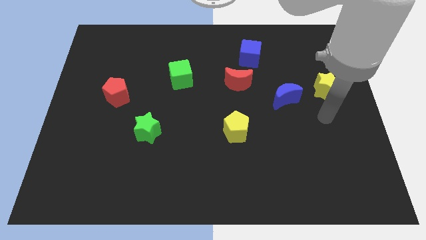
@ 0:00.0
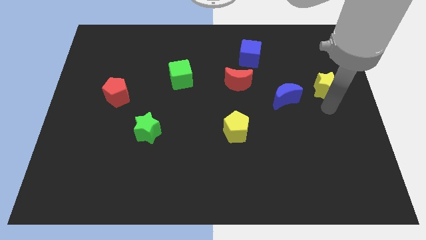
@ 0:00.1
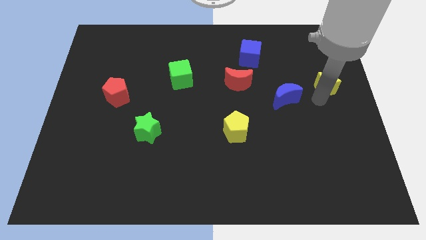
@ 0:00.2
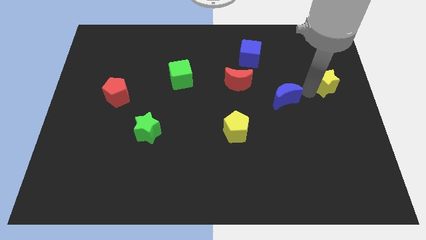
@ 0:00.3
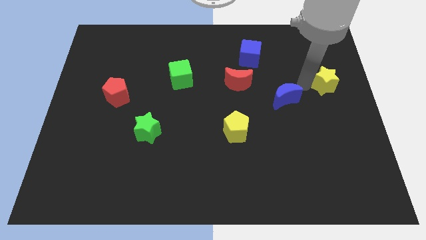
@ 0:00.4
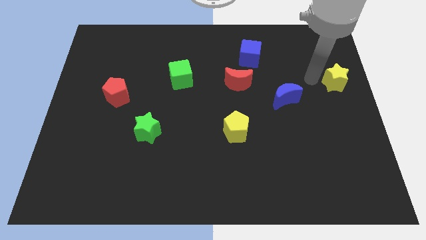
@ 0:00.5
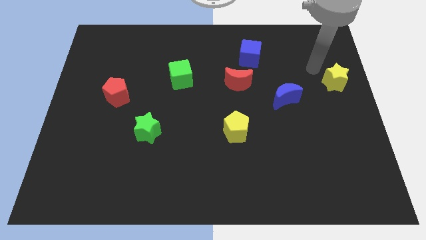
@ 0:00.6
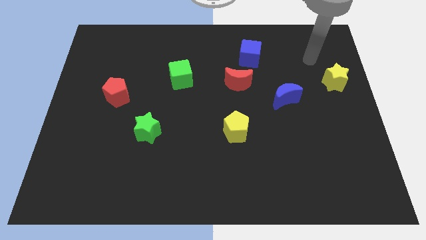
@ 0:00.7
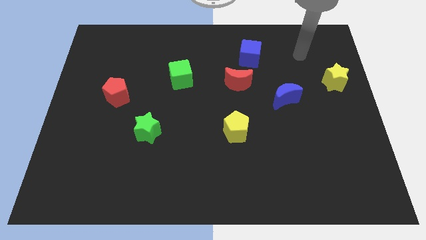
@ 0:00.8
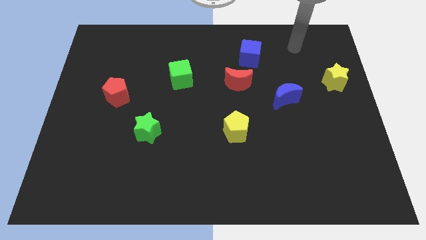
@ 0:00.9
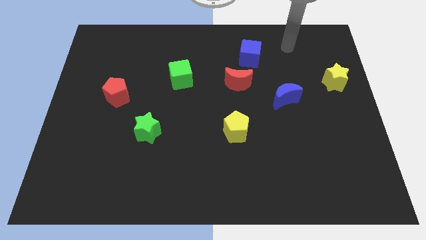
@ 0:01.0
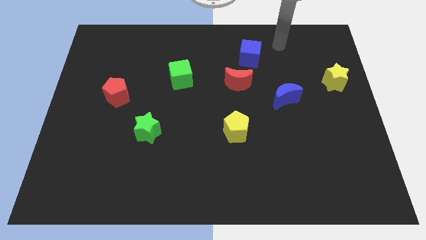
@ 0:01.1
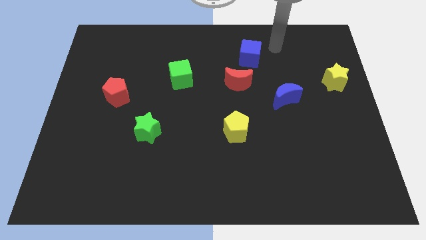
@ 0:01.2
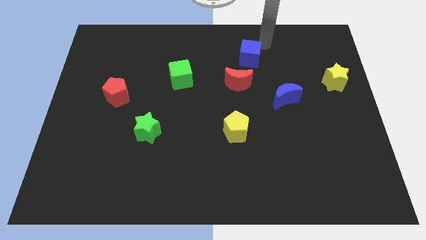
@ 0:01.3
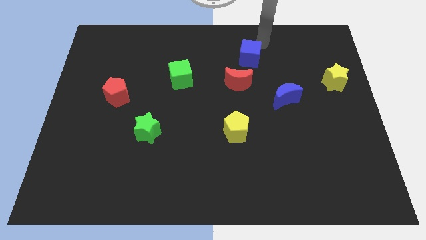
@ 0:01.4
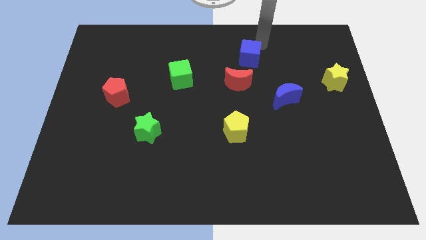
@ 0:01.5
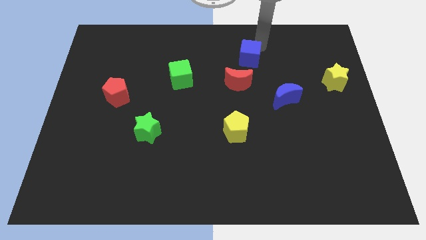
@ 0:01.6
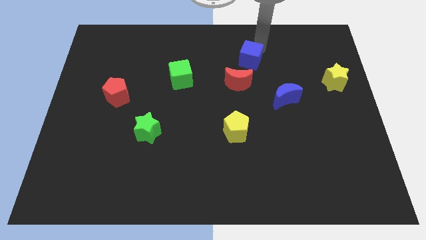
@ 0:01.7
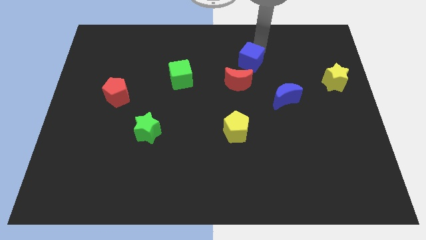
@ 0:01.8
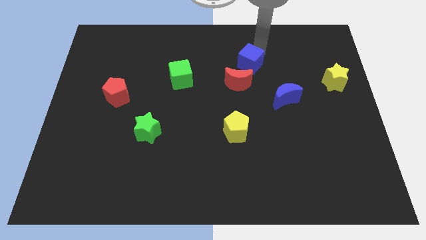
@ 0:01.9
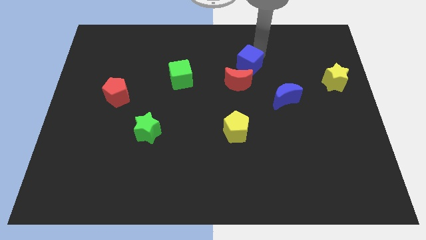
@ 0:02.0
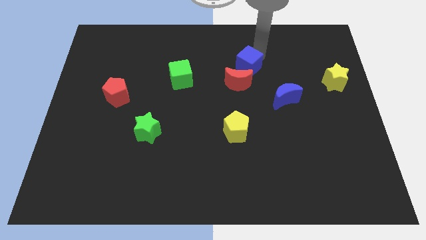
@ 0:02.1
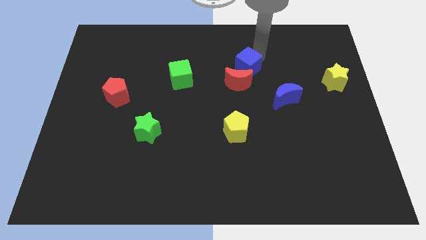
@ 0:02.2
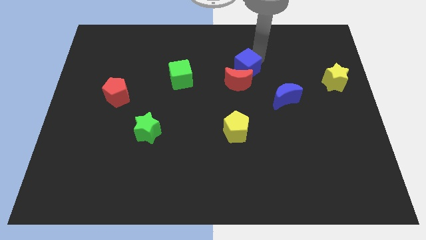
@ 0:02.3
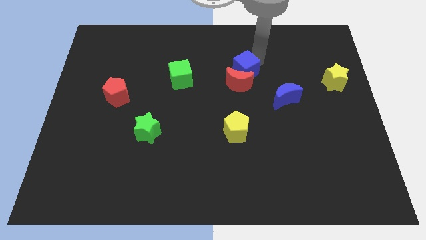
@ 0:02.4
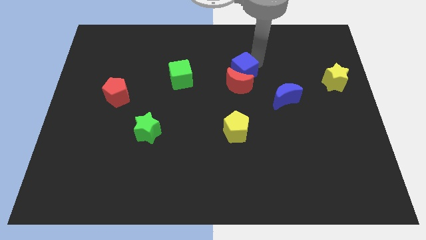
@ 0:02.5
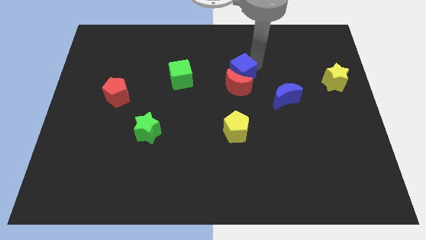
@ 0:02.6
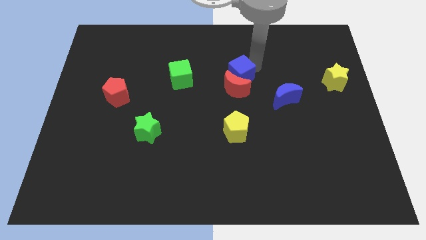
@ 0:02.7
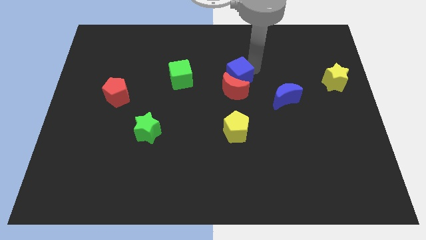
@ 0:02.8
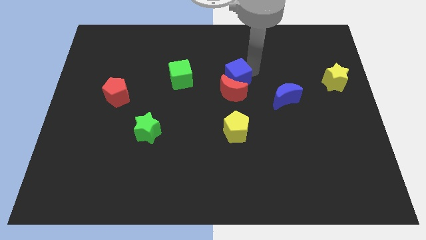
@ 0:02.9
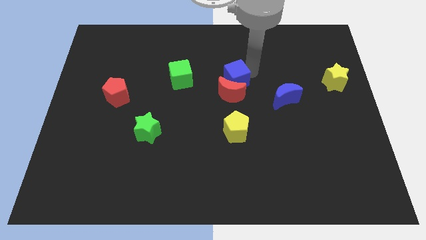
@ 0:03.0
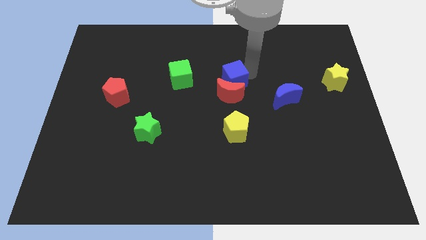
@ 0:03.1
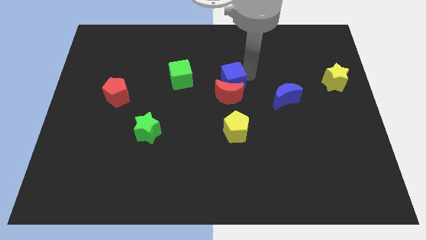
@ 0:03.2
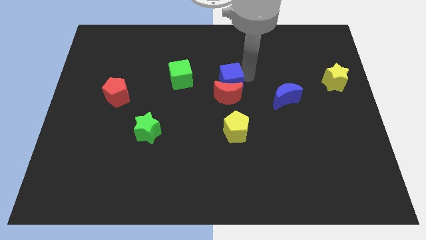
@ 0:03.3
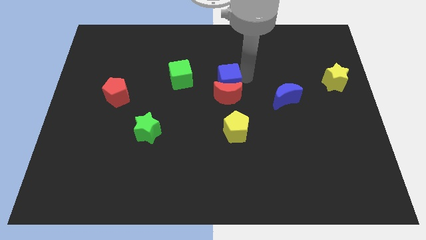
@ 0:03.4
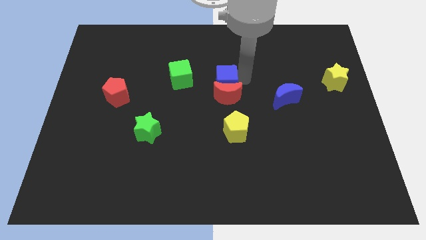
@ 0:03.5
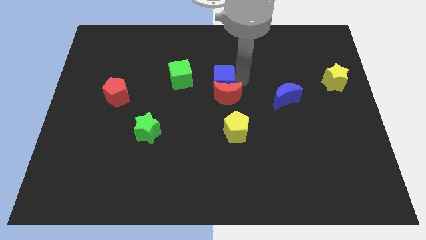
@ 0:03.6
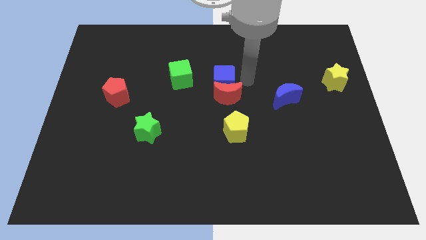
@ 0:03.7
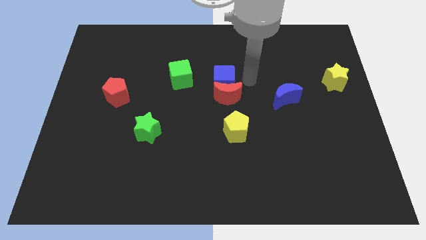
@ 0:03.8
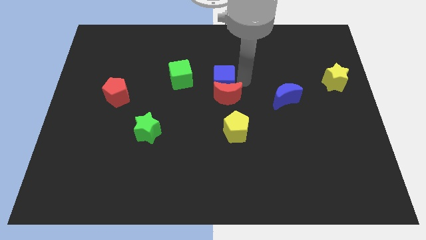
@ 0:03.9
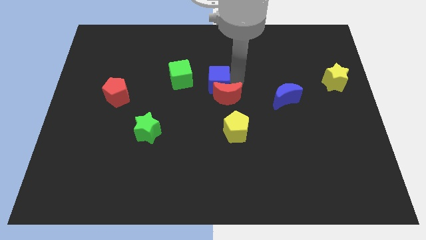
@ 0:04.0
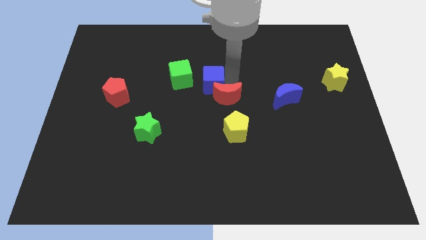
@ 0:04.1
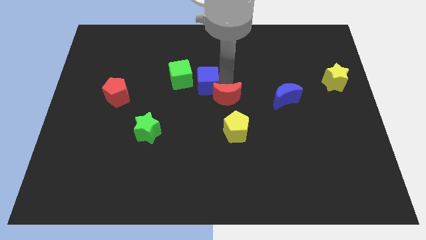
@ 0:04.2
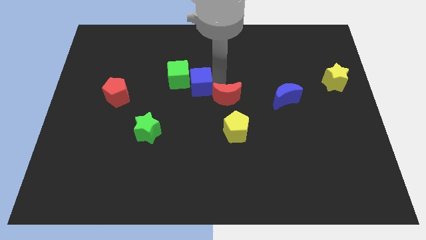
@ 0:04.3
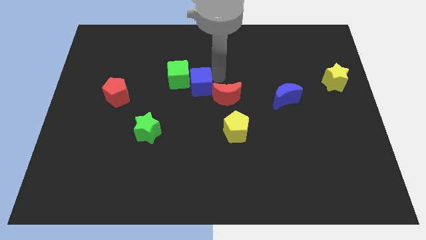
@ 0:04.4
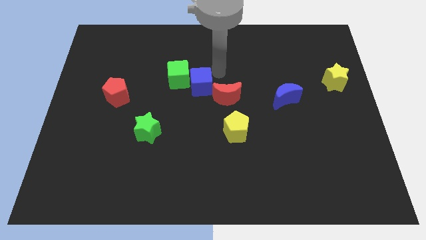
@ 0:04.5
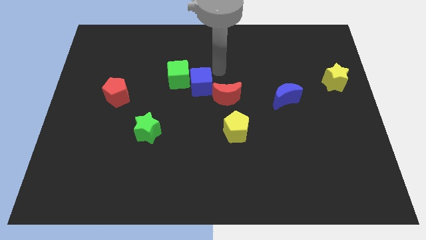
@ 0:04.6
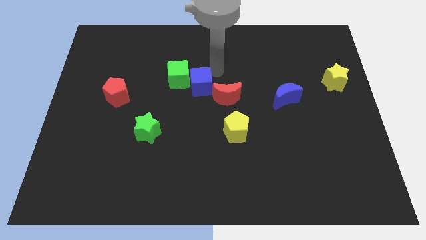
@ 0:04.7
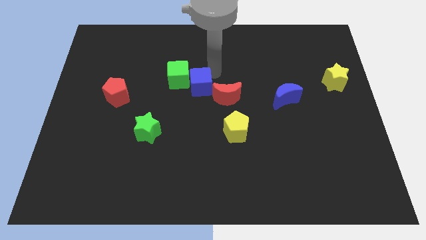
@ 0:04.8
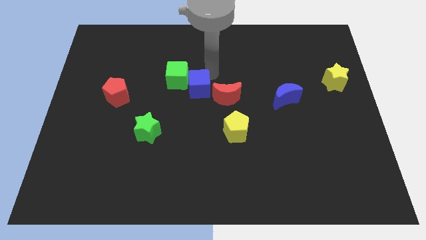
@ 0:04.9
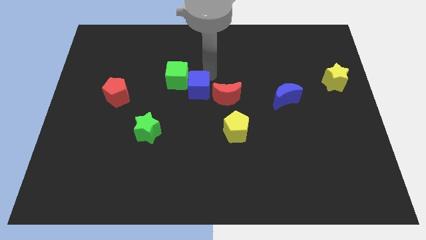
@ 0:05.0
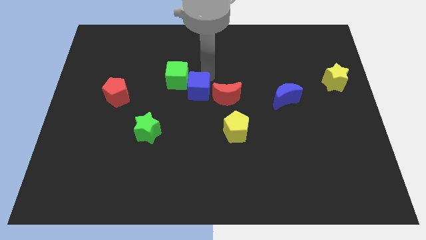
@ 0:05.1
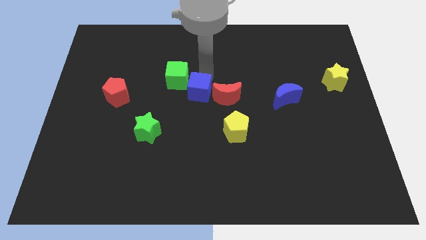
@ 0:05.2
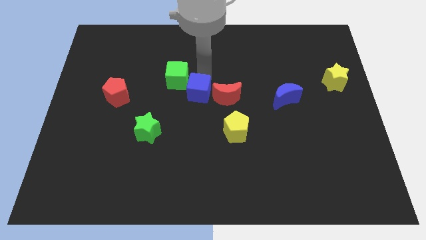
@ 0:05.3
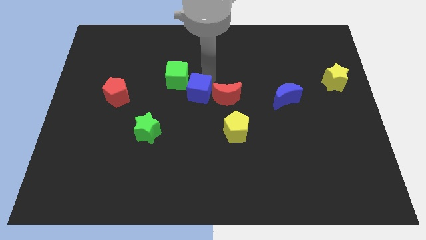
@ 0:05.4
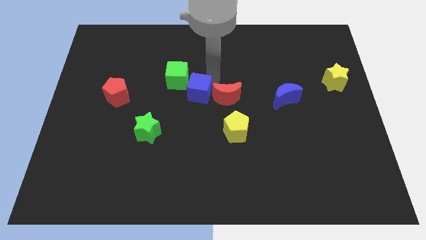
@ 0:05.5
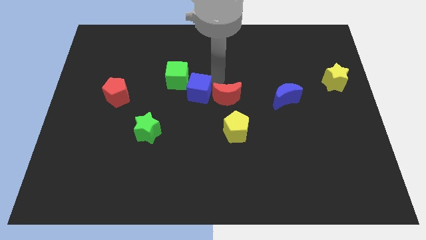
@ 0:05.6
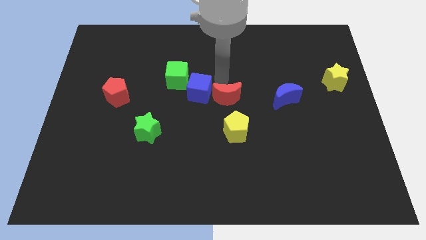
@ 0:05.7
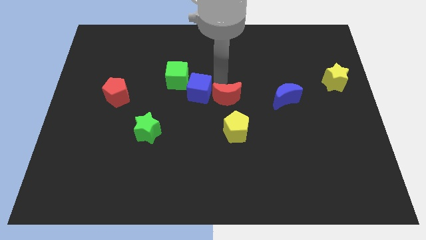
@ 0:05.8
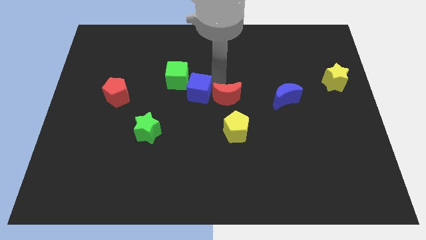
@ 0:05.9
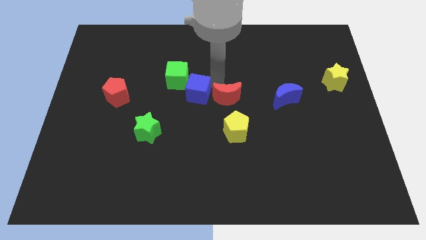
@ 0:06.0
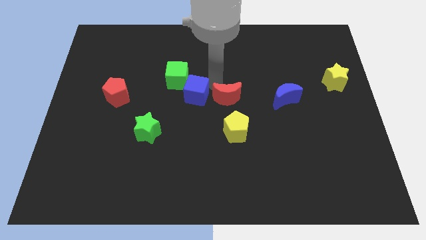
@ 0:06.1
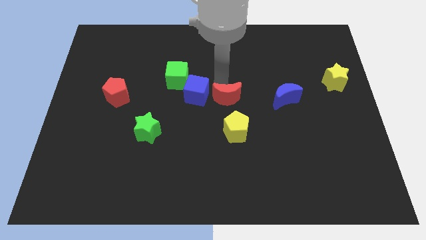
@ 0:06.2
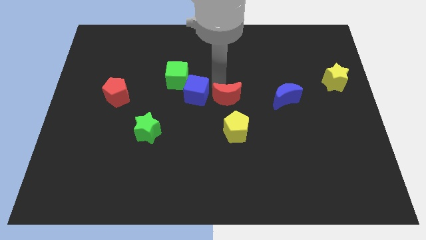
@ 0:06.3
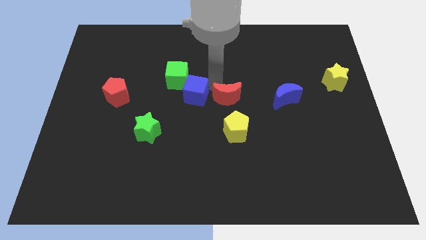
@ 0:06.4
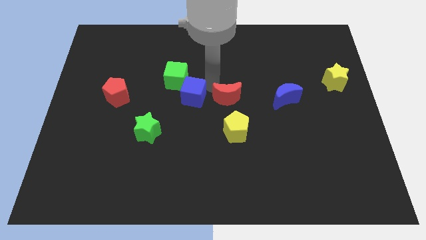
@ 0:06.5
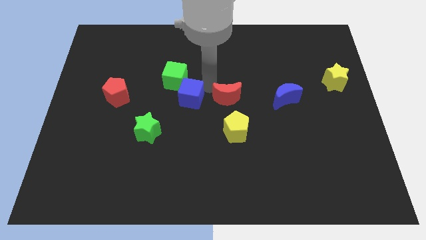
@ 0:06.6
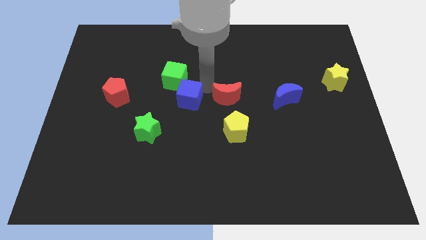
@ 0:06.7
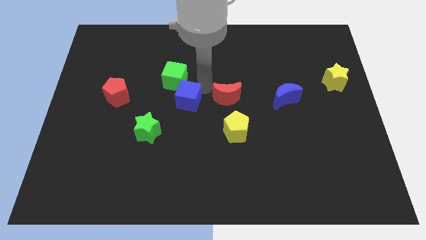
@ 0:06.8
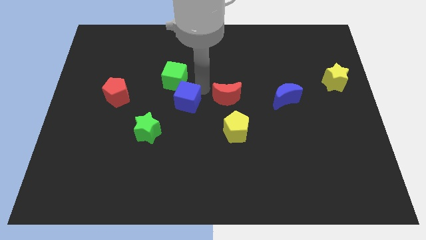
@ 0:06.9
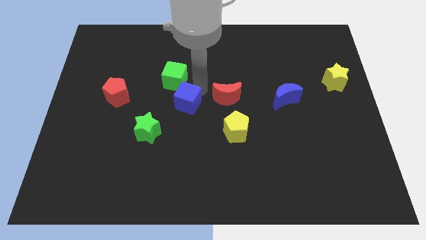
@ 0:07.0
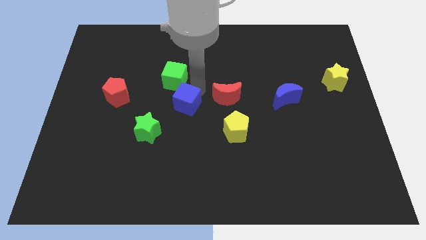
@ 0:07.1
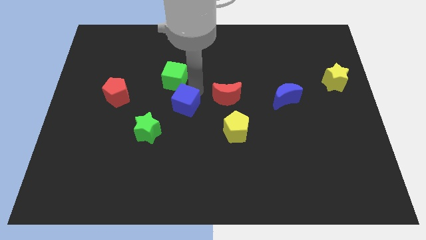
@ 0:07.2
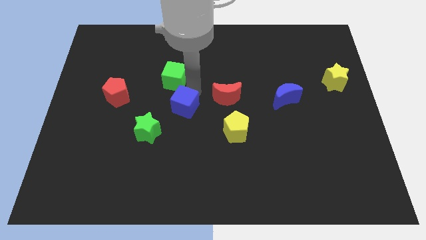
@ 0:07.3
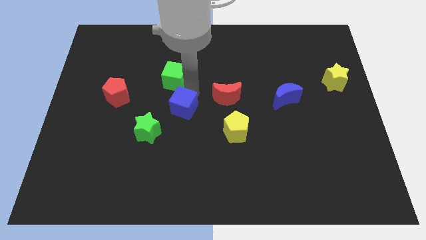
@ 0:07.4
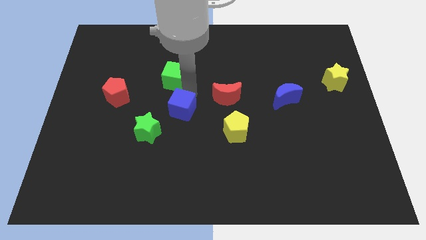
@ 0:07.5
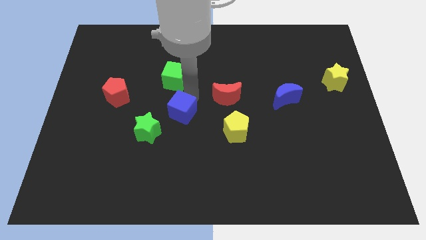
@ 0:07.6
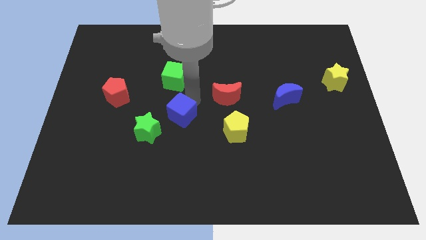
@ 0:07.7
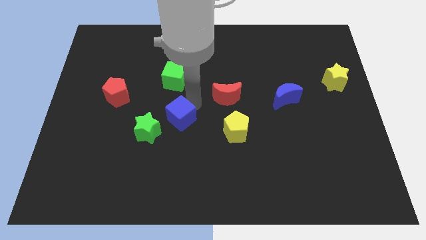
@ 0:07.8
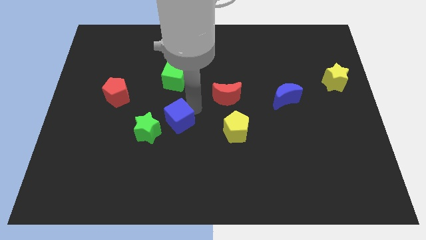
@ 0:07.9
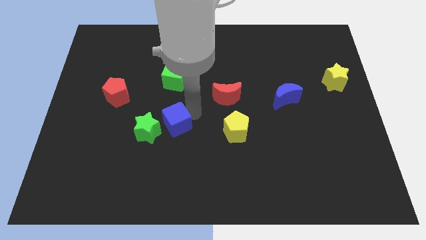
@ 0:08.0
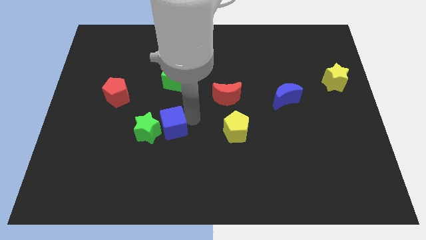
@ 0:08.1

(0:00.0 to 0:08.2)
push the blue cube to the green star
